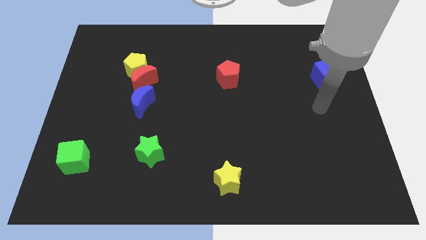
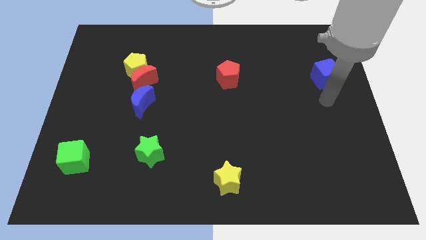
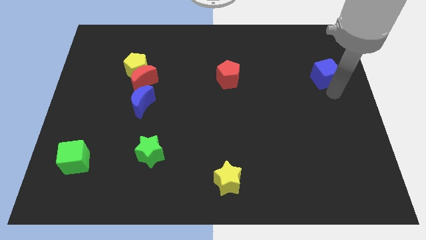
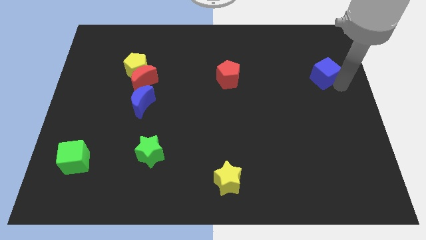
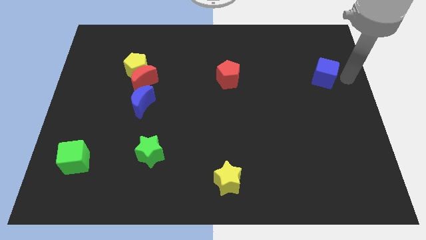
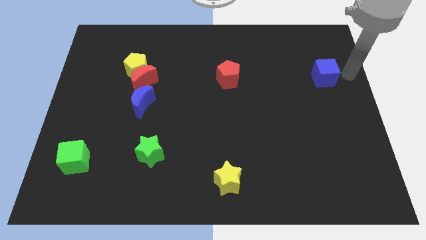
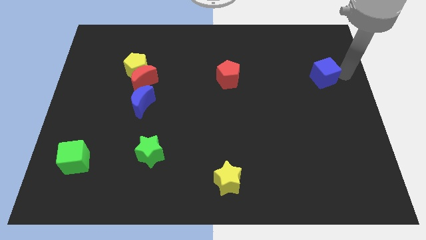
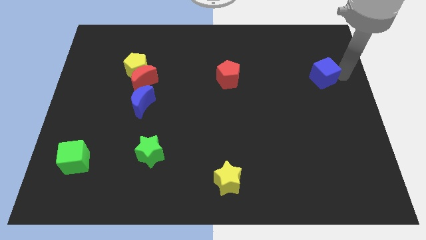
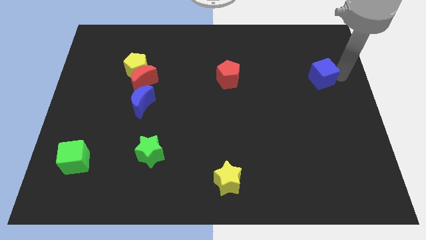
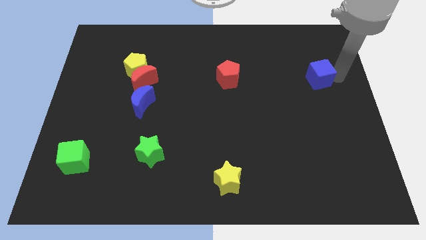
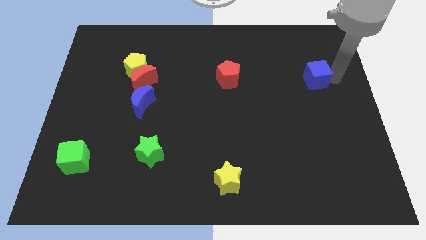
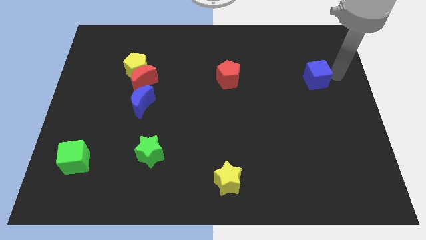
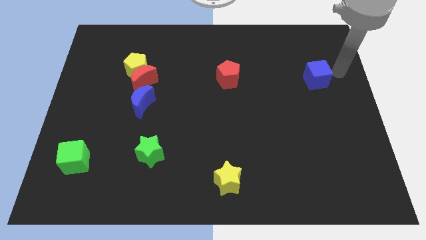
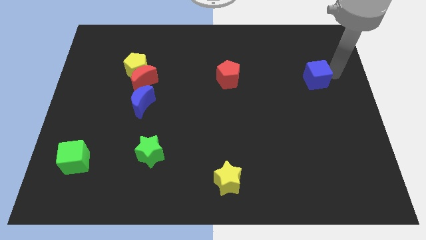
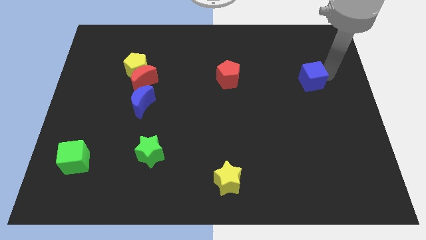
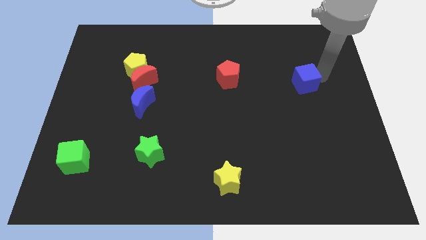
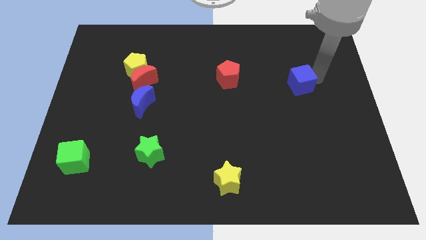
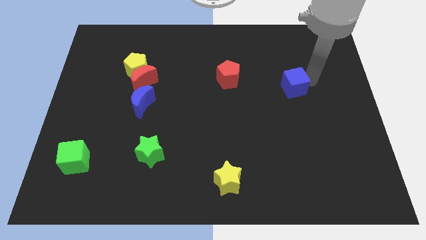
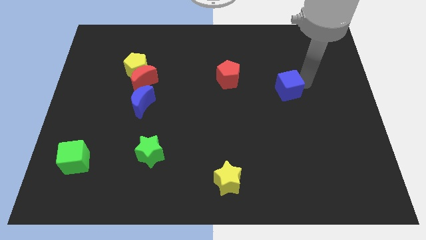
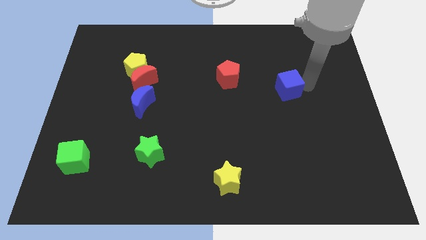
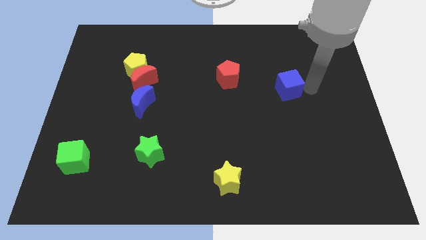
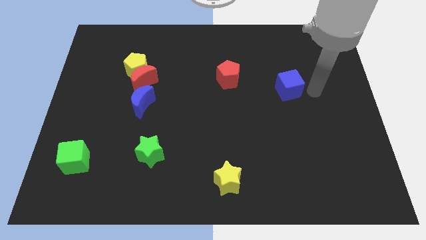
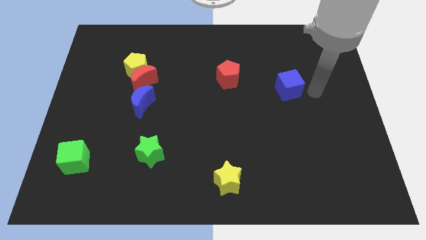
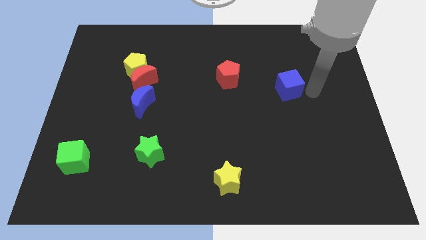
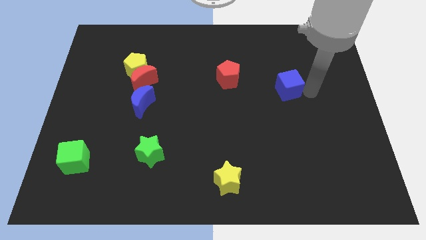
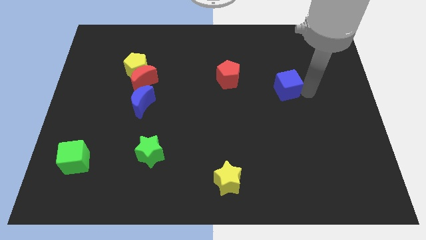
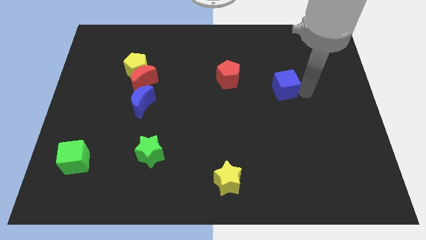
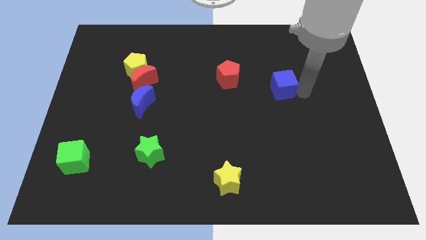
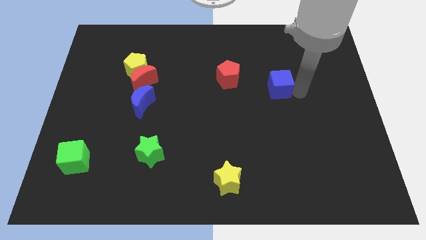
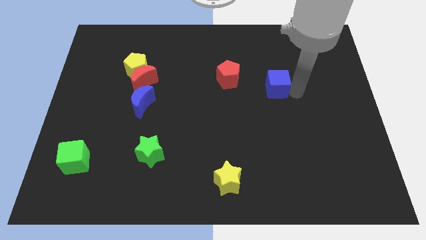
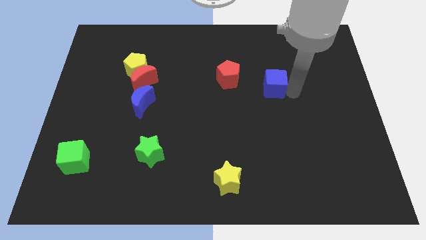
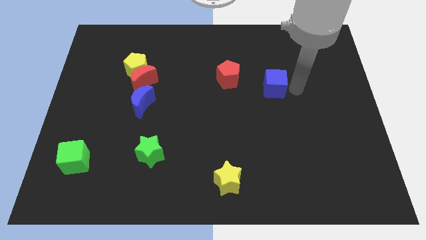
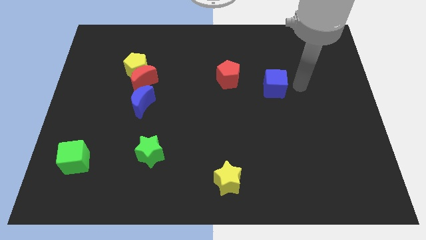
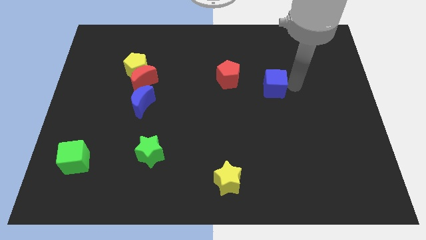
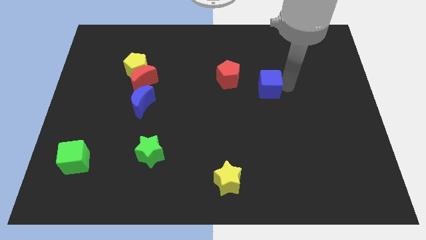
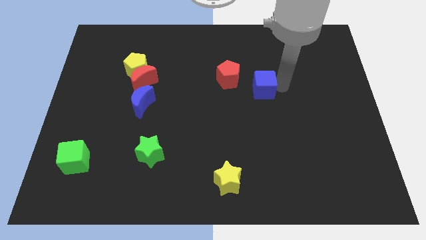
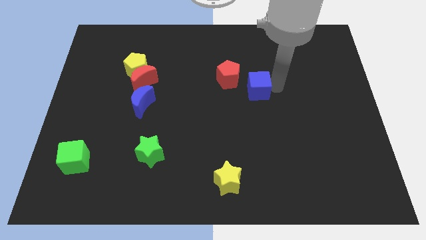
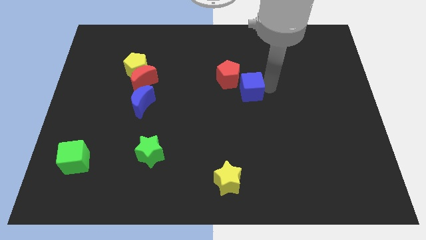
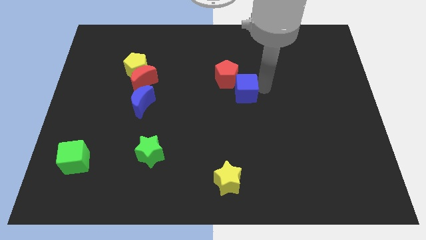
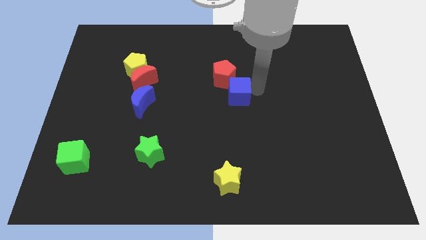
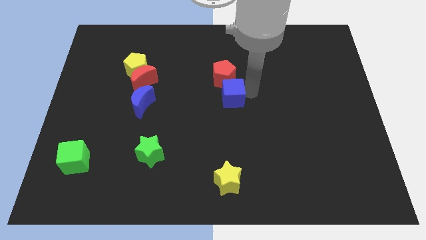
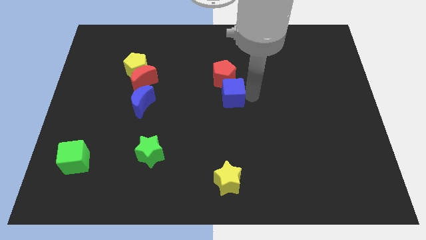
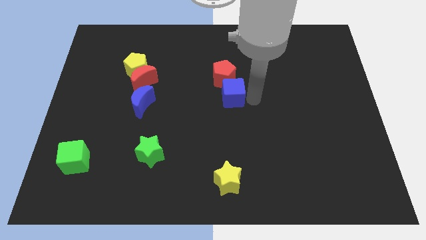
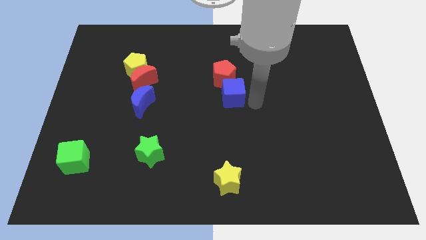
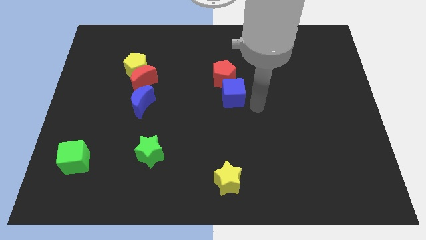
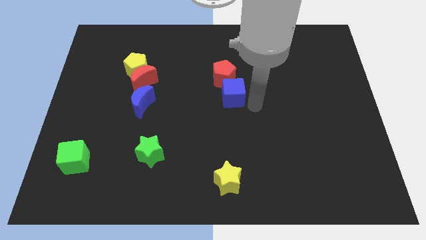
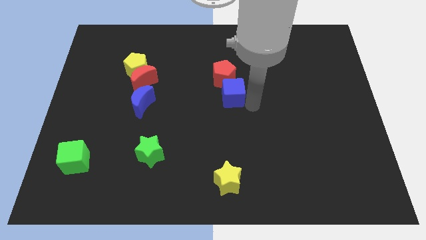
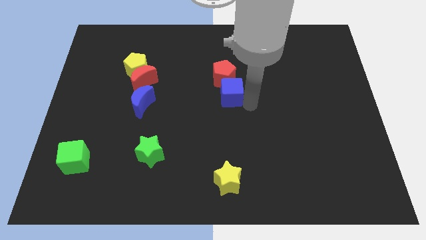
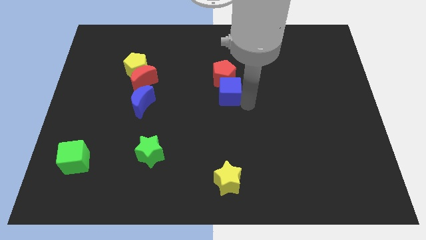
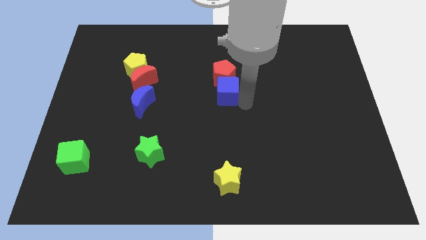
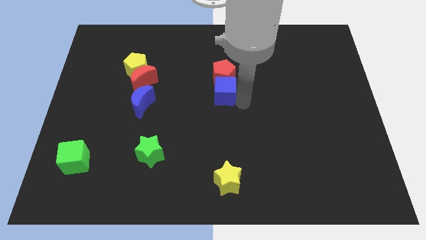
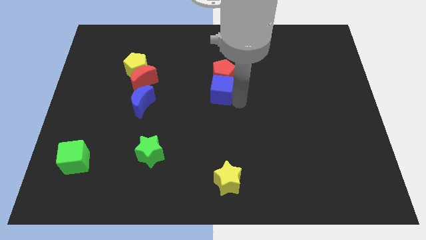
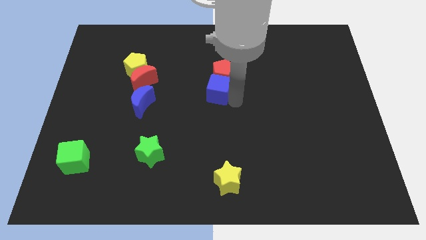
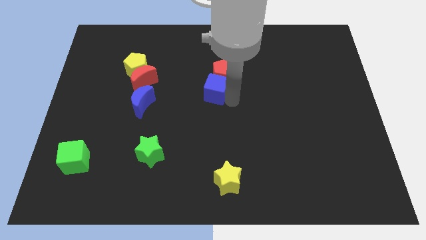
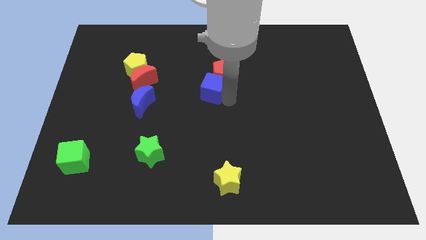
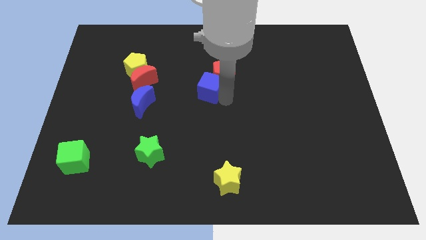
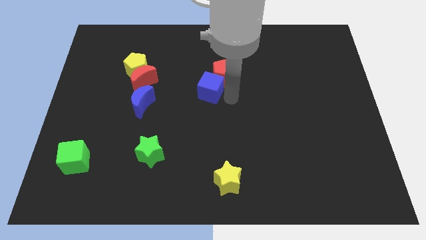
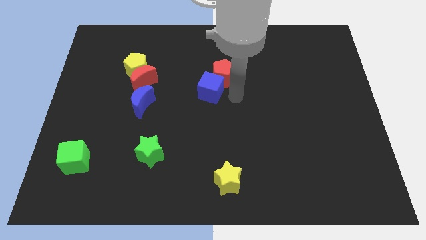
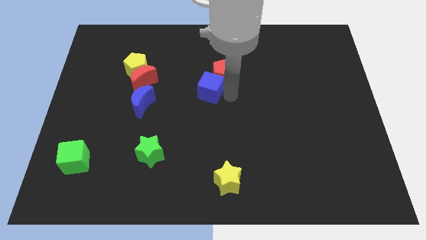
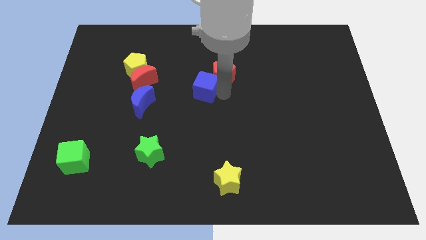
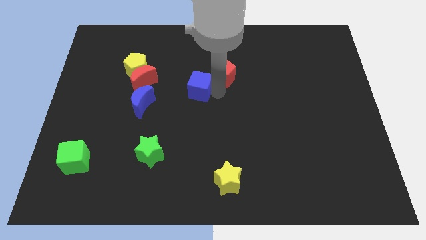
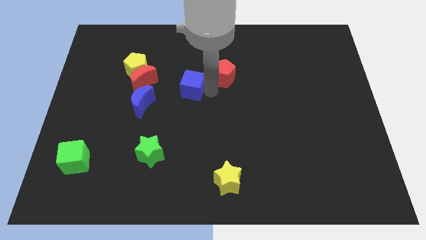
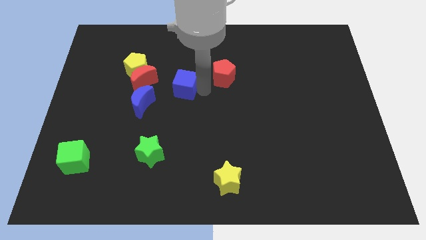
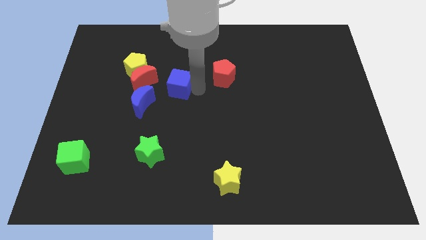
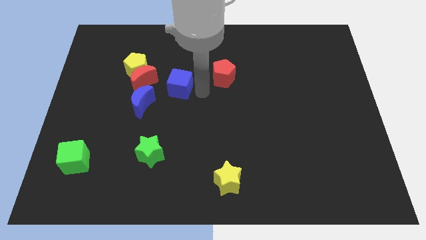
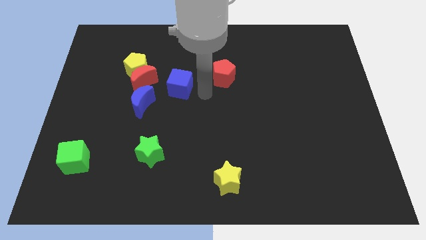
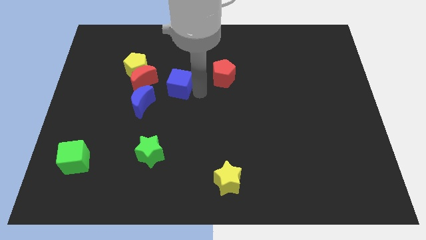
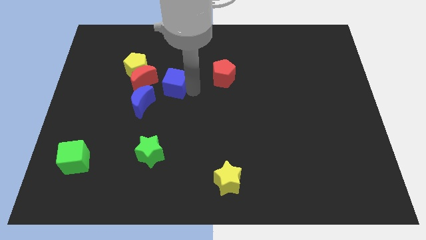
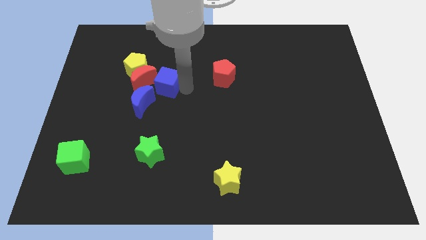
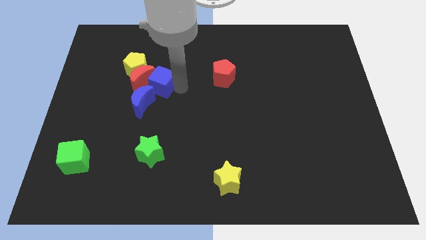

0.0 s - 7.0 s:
put the blue cube towards the red moon
